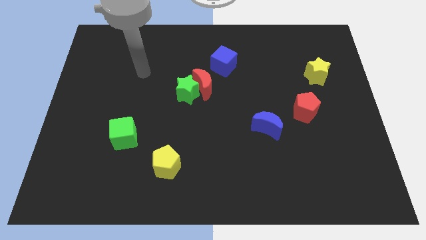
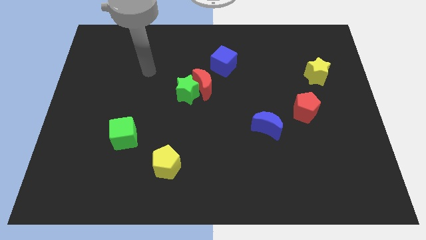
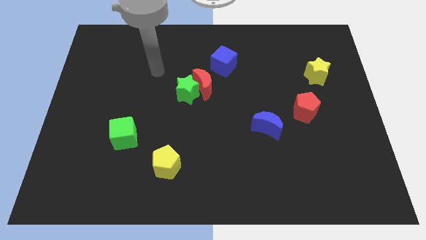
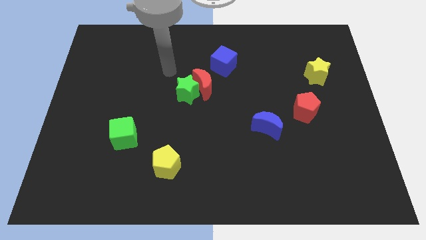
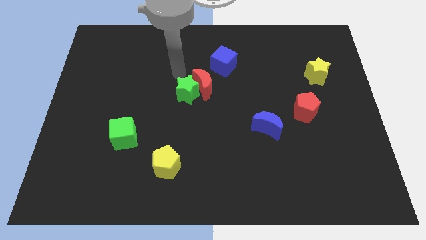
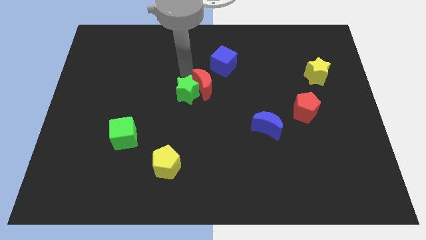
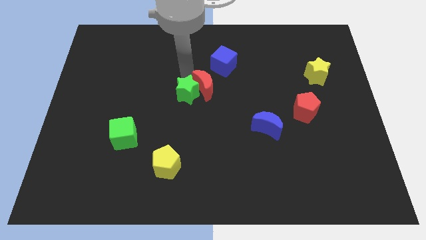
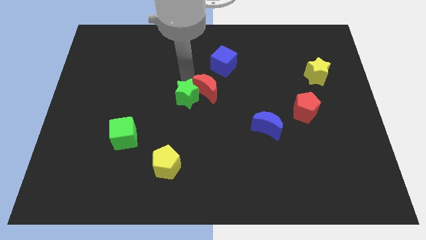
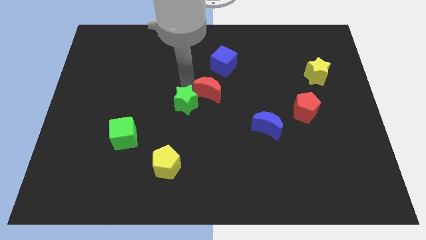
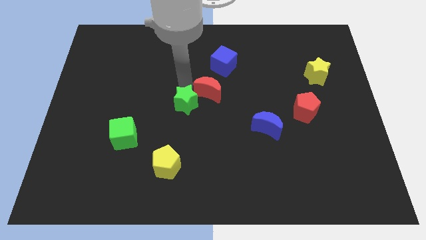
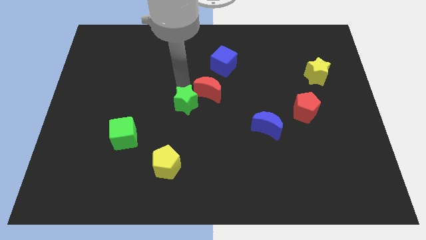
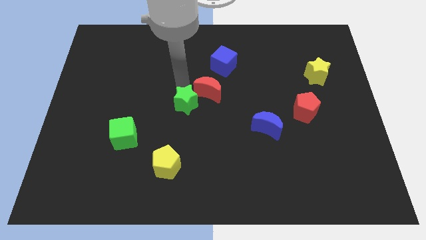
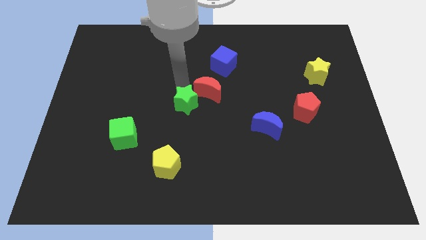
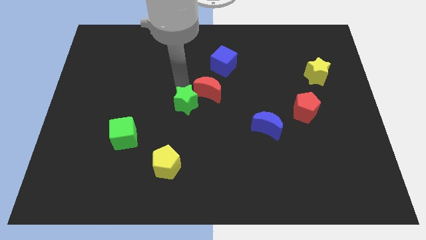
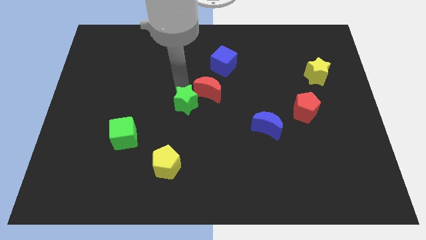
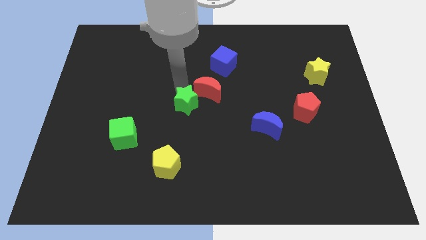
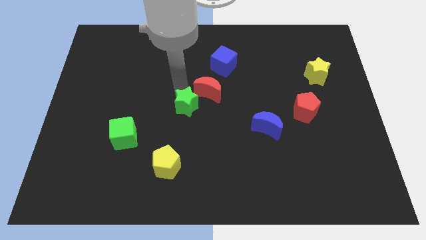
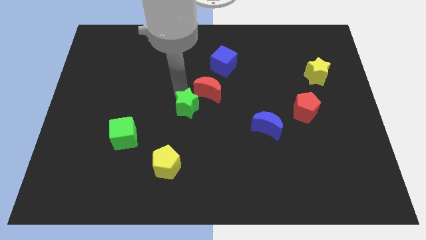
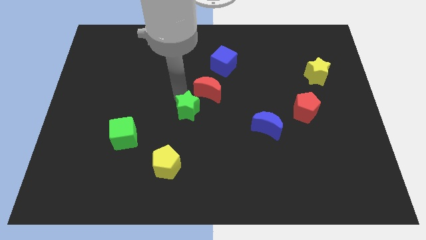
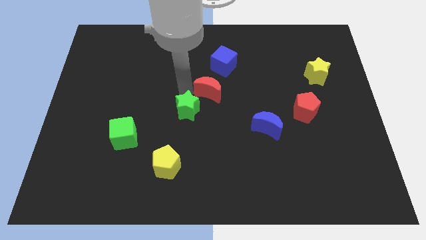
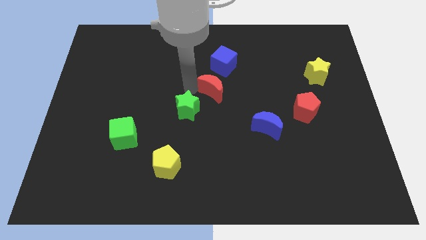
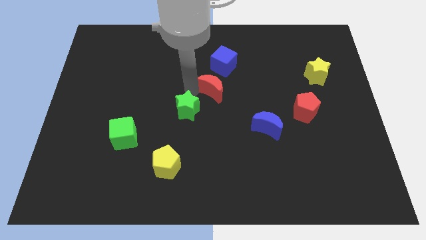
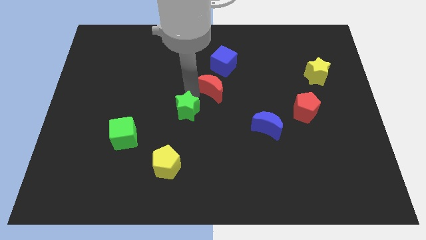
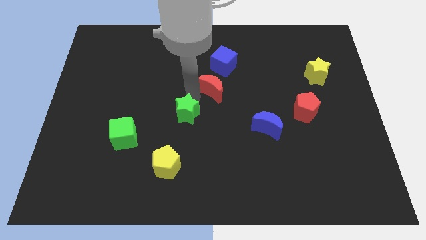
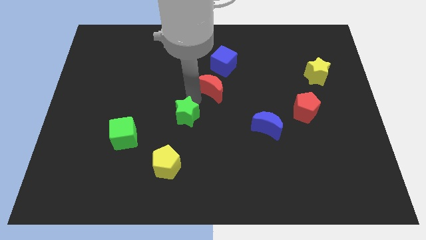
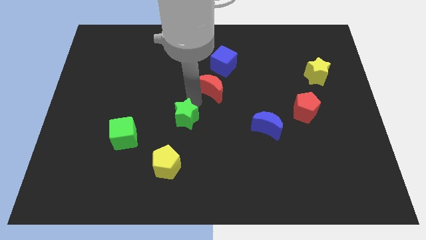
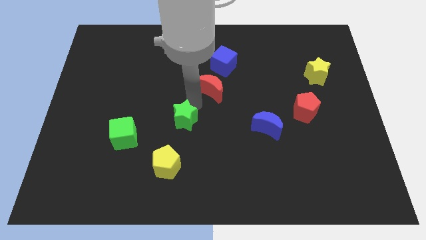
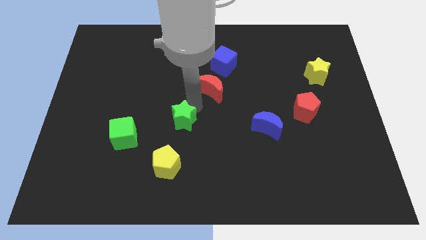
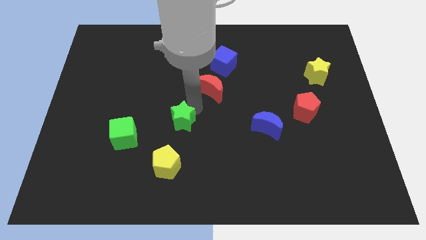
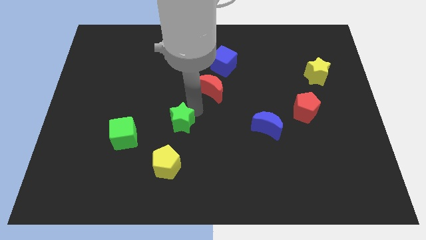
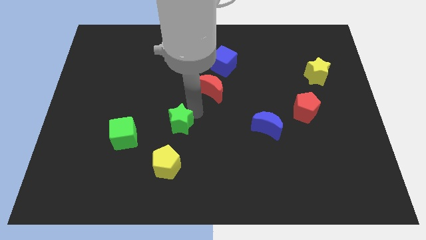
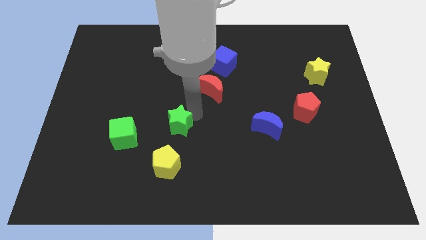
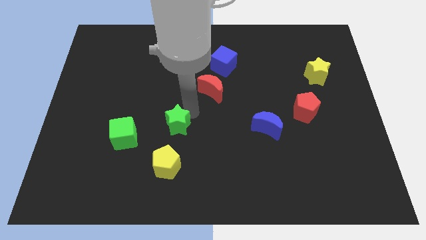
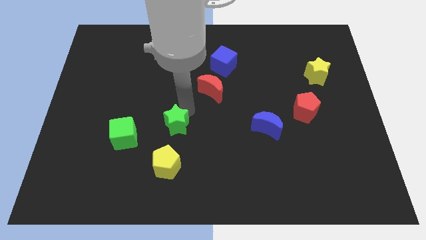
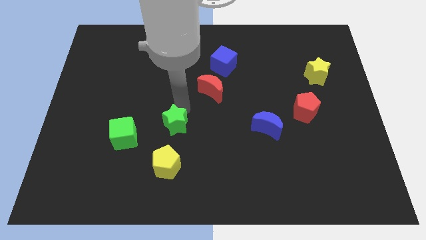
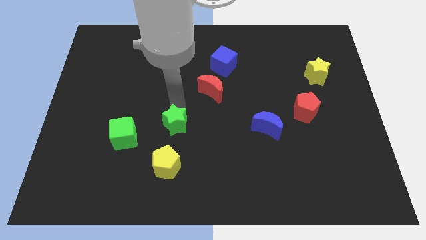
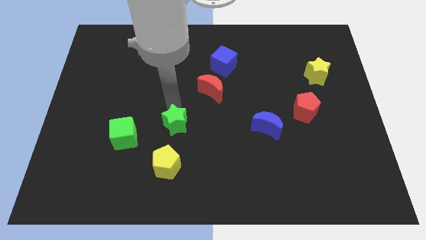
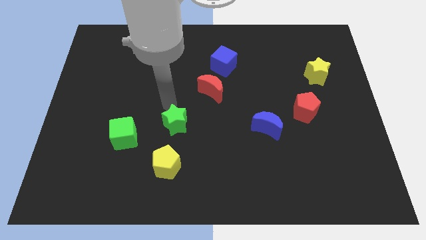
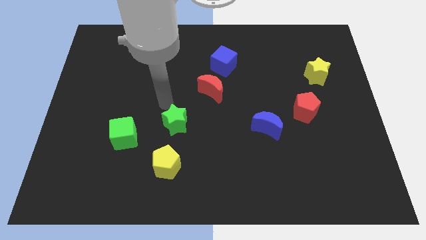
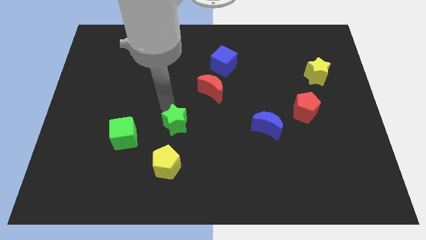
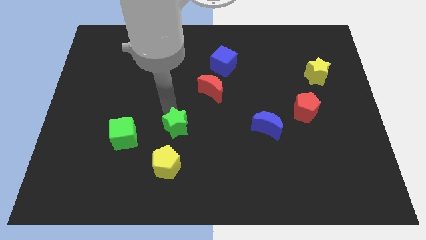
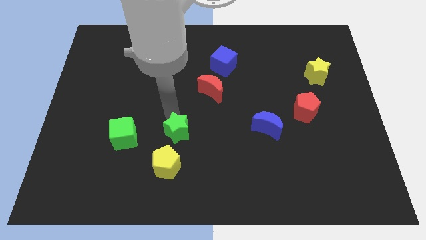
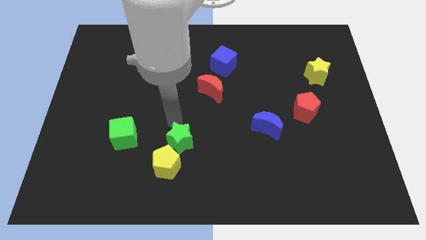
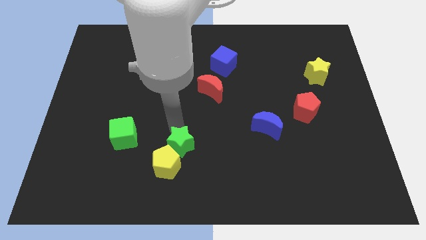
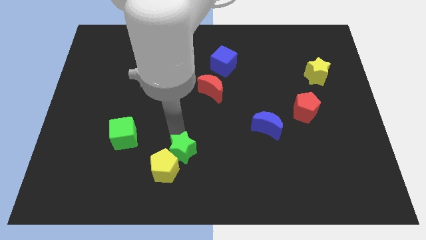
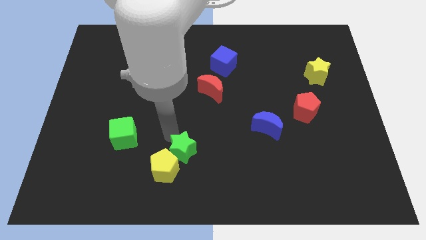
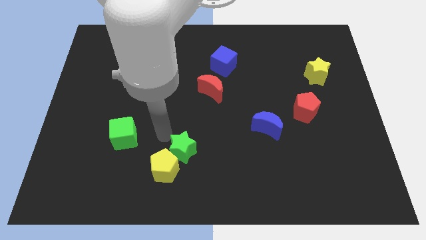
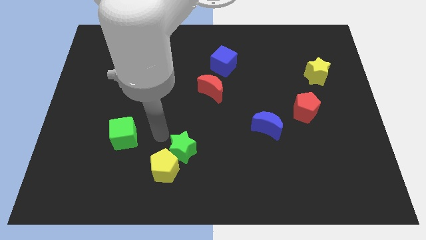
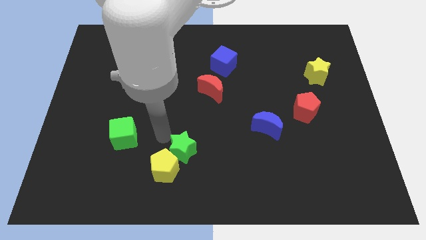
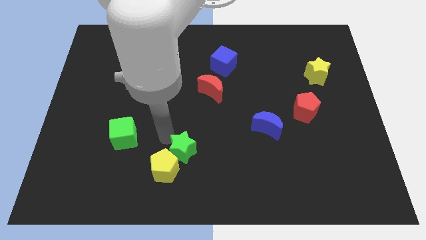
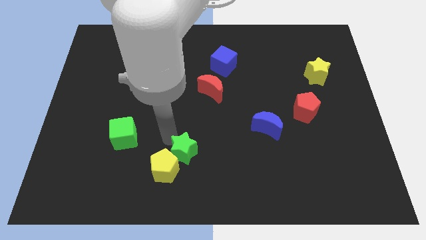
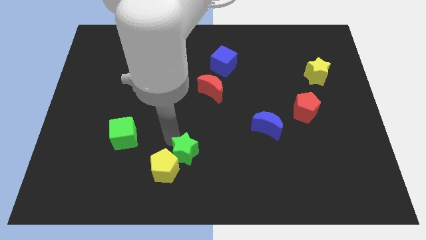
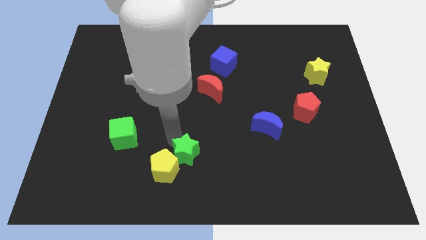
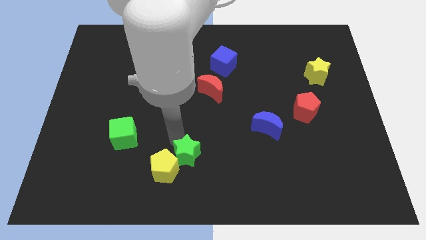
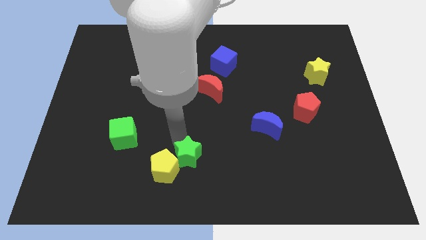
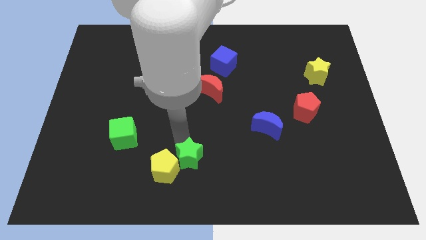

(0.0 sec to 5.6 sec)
move the green star to the bottom

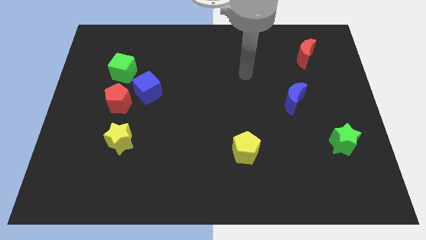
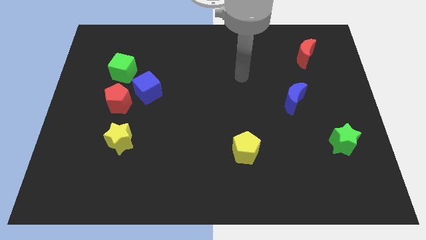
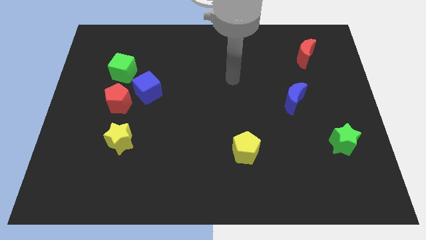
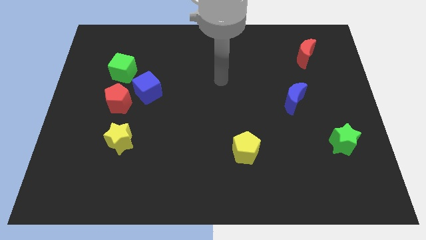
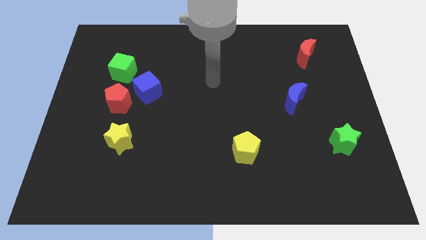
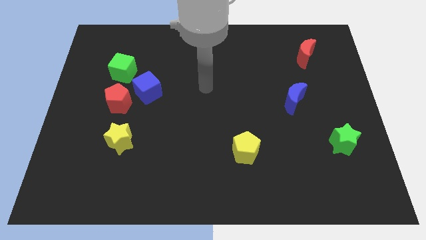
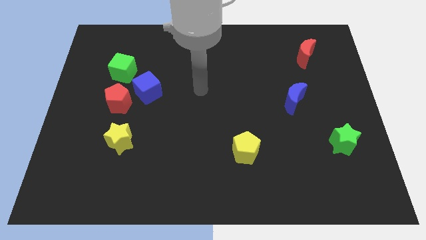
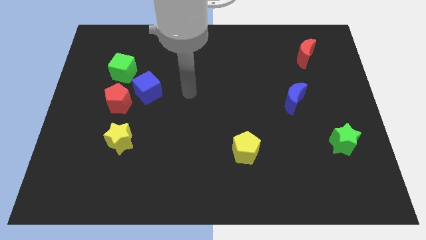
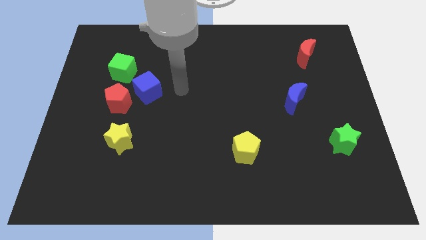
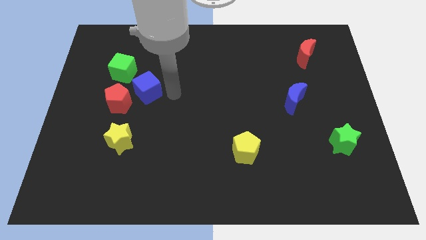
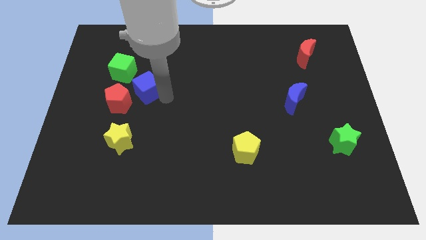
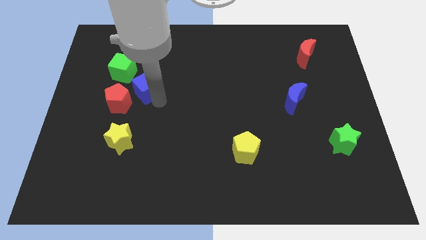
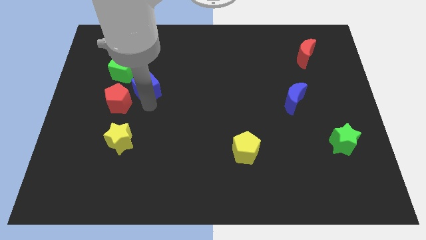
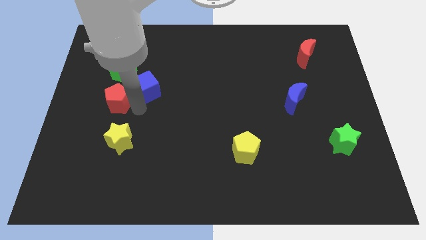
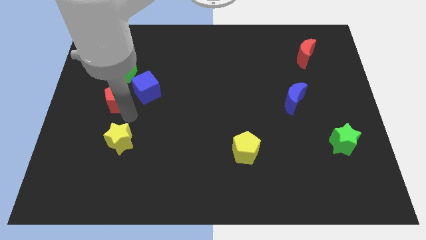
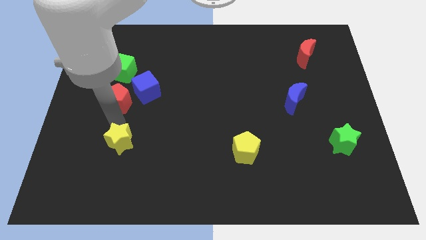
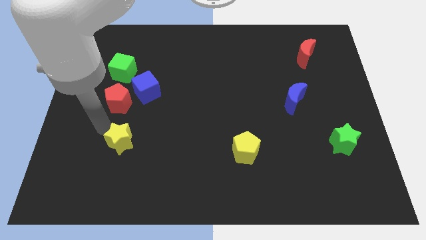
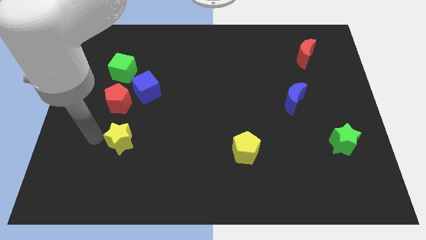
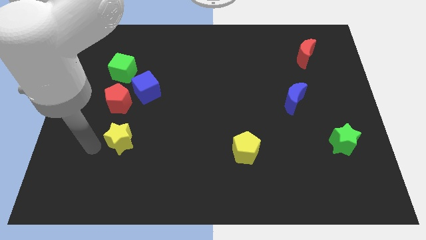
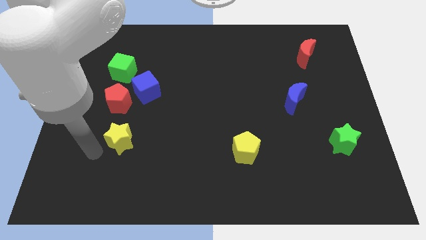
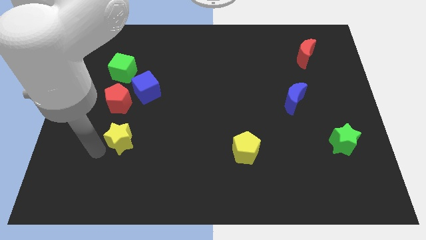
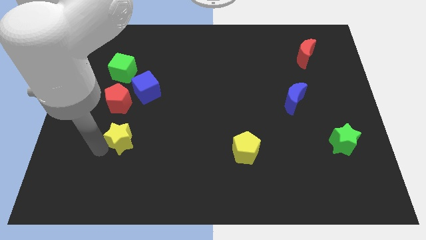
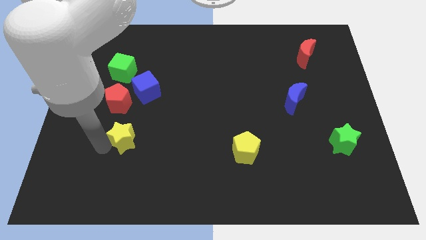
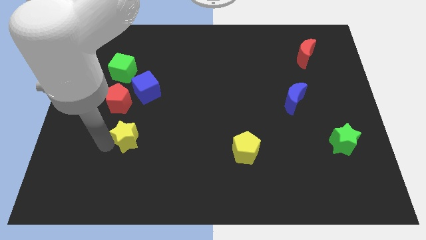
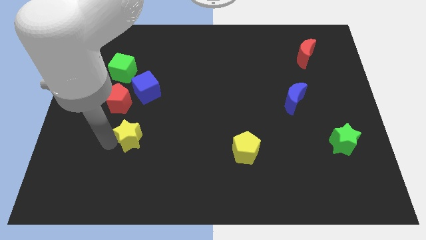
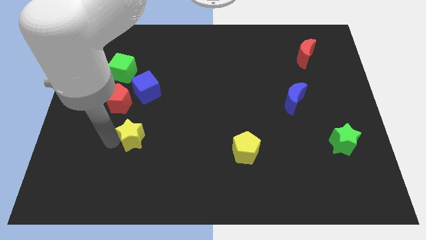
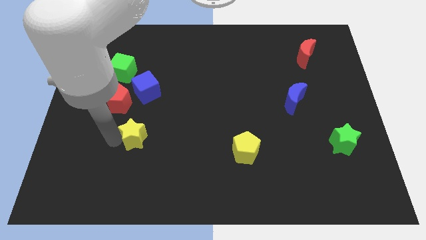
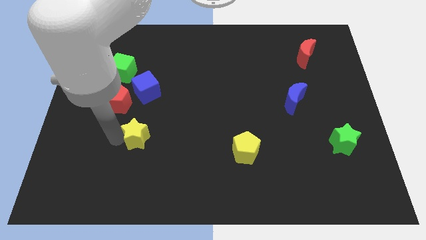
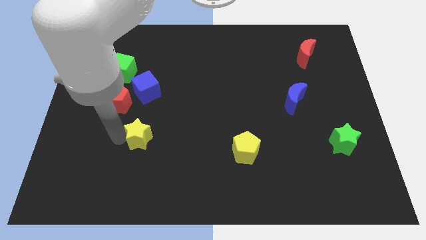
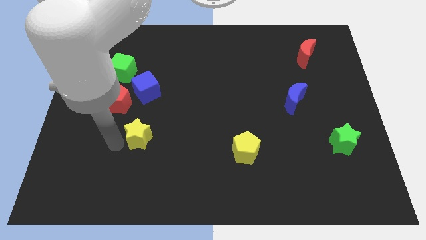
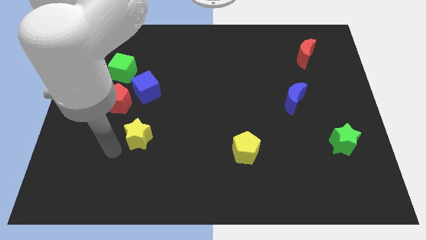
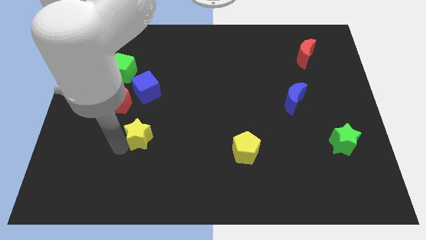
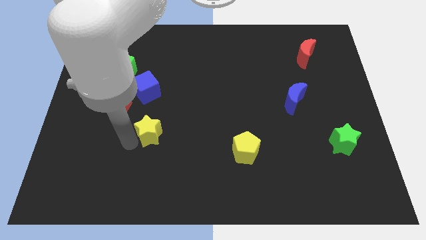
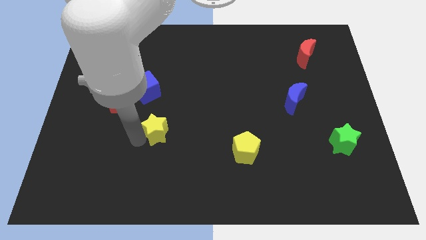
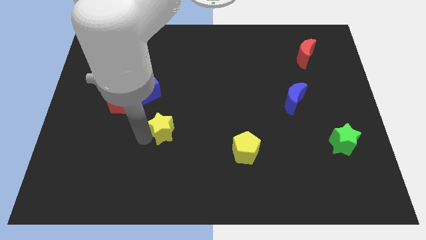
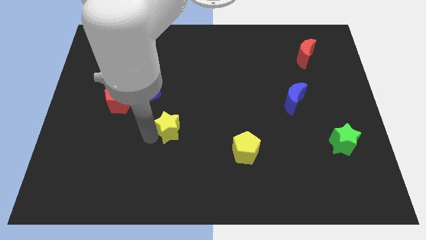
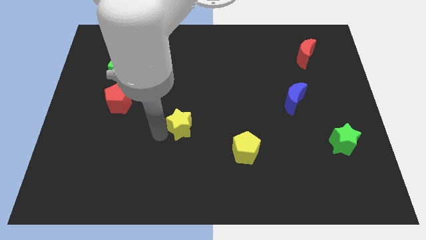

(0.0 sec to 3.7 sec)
push the yellow star to the middle of the board
